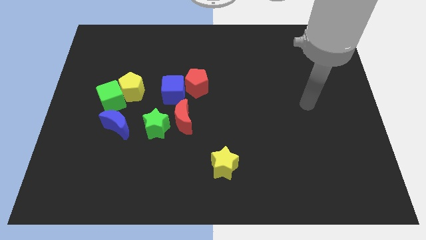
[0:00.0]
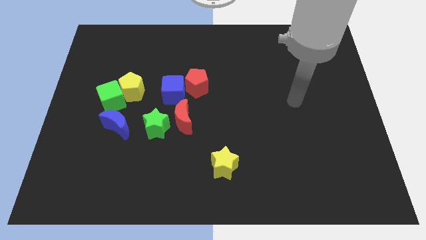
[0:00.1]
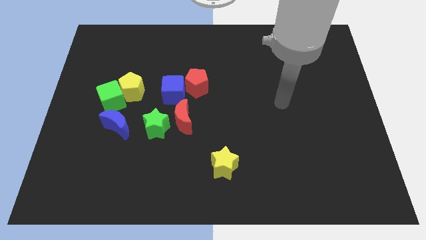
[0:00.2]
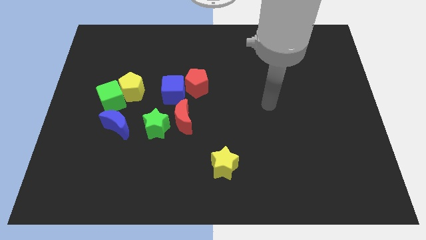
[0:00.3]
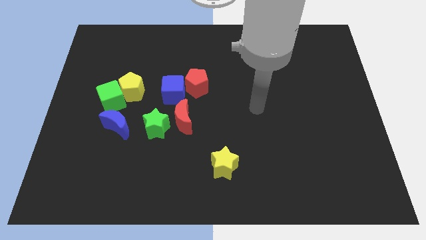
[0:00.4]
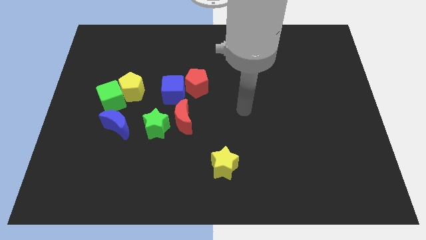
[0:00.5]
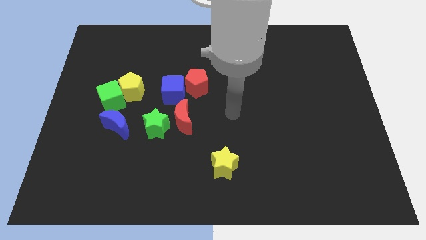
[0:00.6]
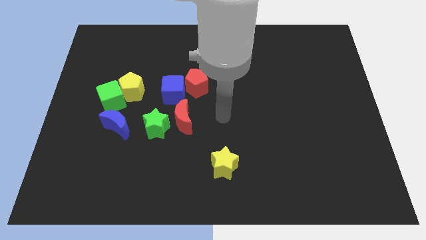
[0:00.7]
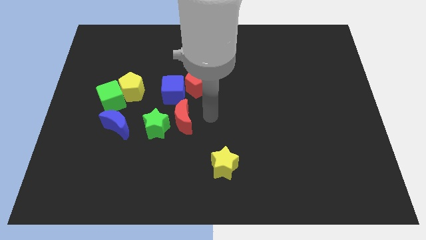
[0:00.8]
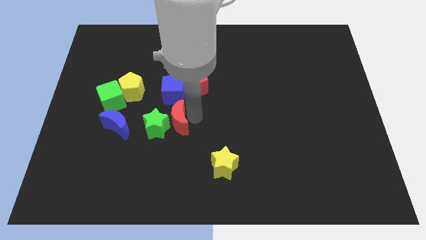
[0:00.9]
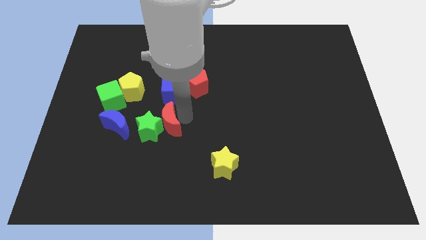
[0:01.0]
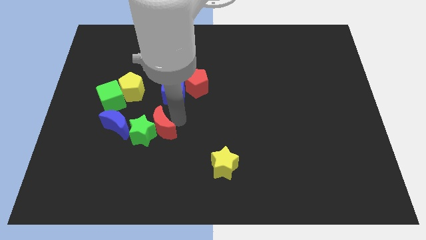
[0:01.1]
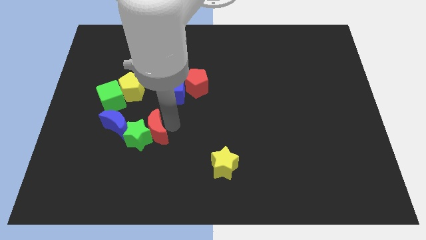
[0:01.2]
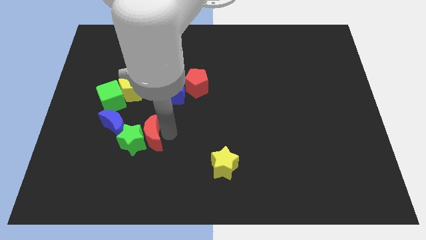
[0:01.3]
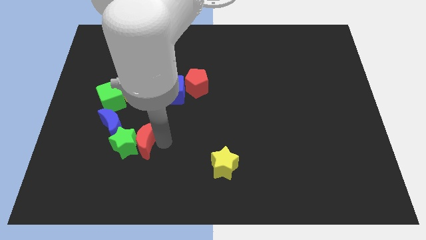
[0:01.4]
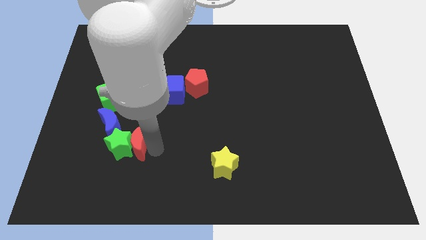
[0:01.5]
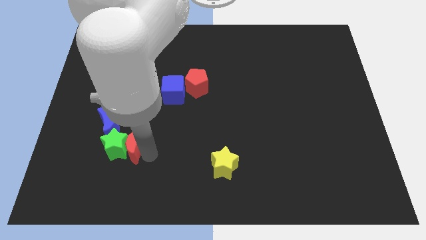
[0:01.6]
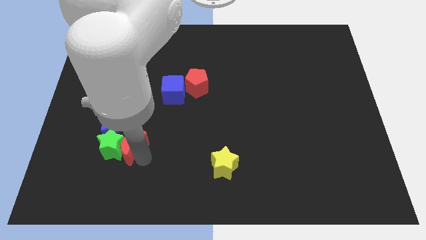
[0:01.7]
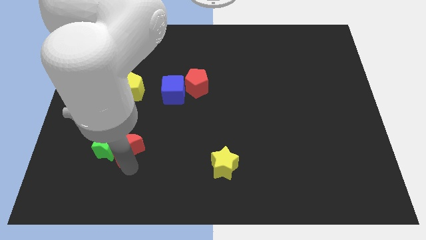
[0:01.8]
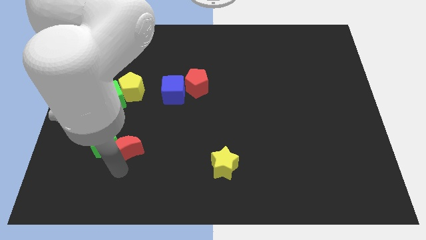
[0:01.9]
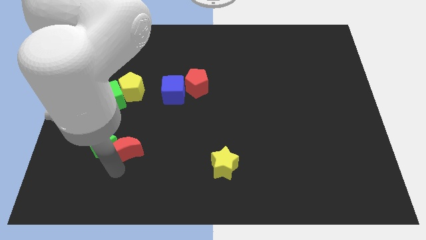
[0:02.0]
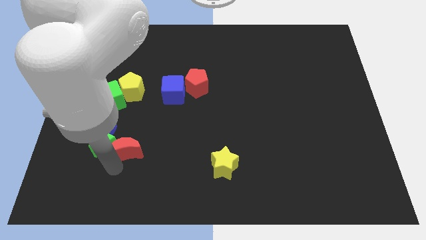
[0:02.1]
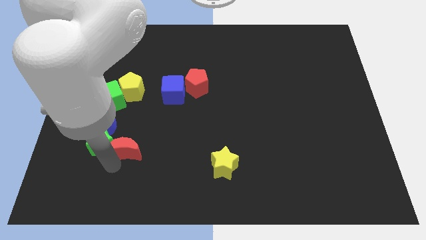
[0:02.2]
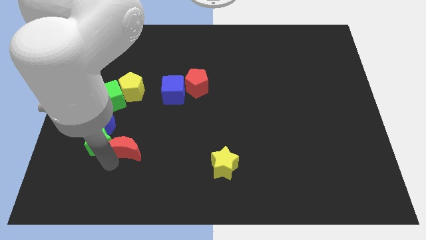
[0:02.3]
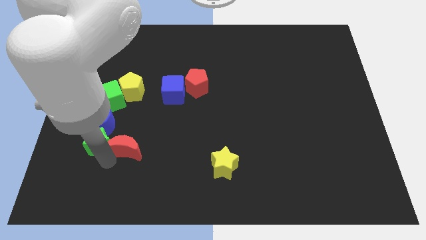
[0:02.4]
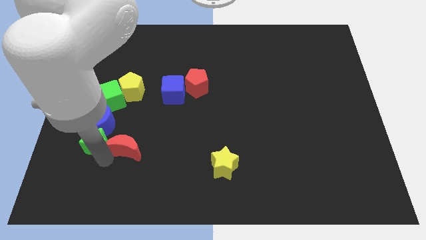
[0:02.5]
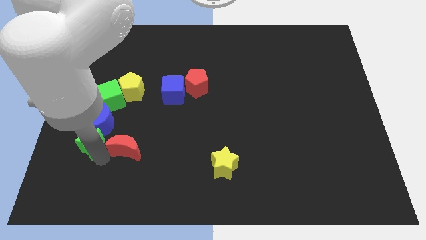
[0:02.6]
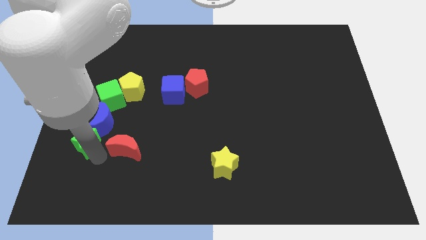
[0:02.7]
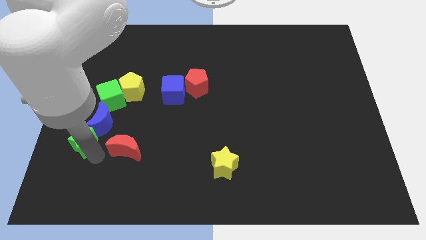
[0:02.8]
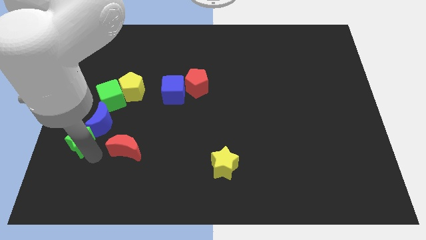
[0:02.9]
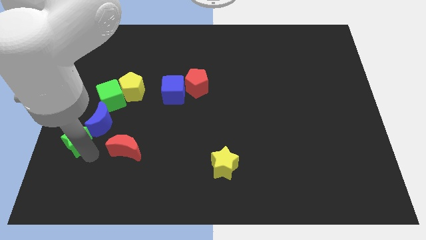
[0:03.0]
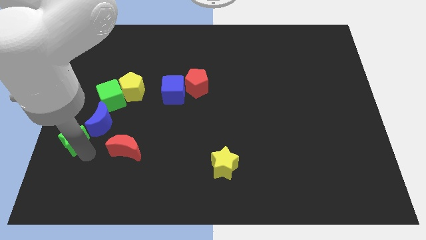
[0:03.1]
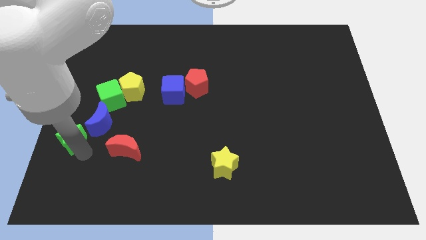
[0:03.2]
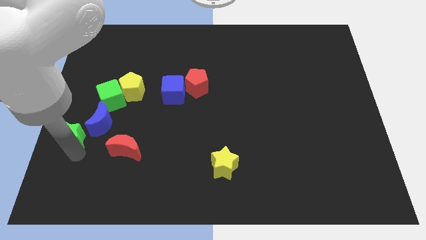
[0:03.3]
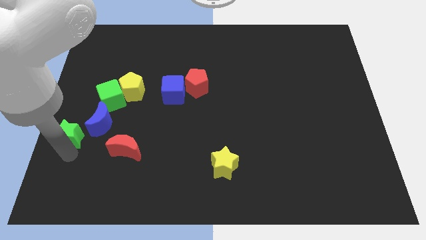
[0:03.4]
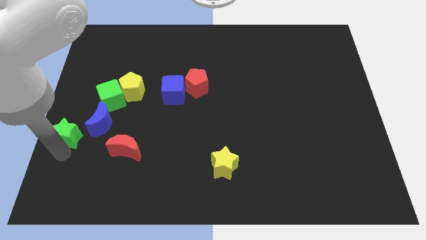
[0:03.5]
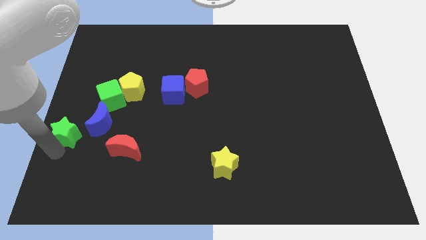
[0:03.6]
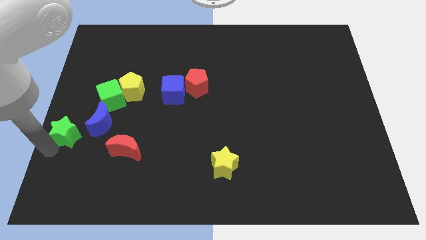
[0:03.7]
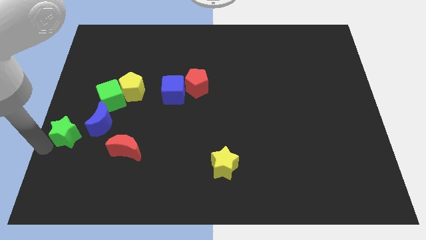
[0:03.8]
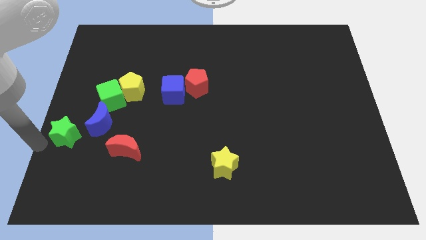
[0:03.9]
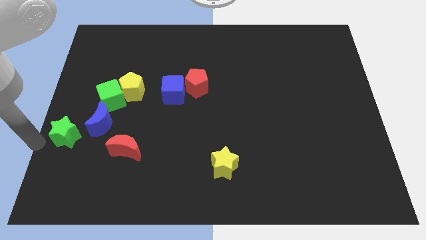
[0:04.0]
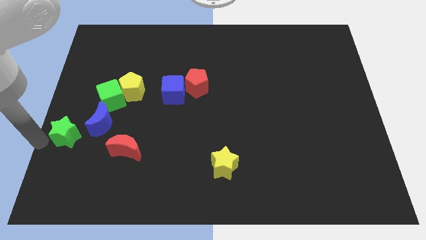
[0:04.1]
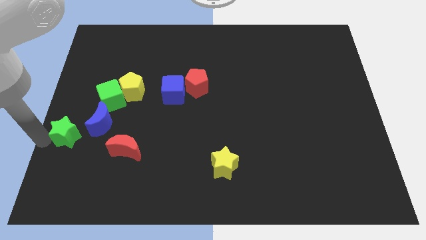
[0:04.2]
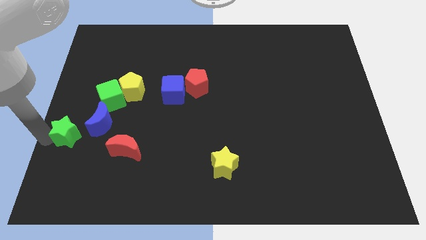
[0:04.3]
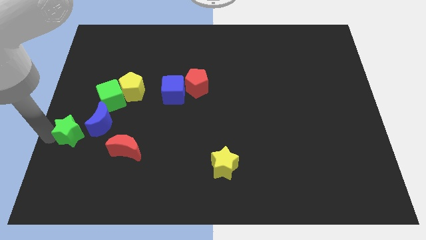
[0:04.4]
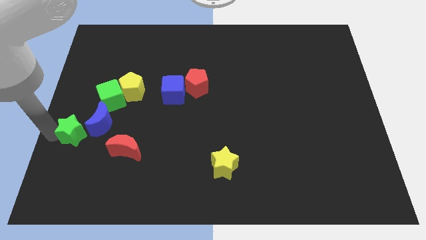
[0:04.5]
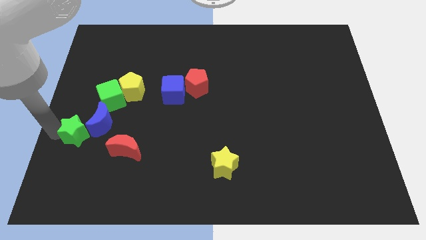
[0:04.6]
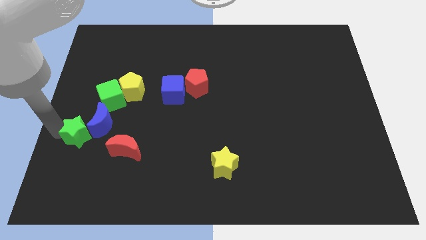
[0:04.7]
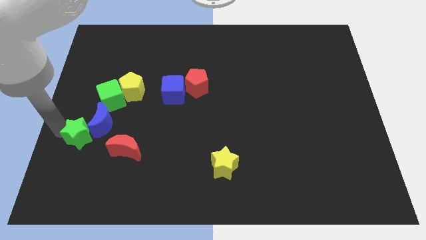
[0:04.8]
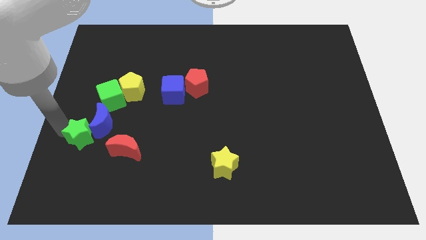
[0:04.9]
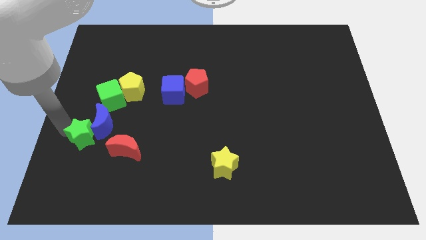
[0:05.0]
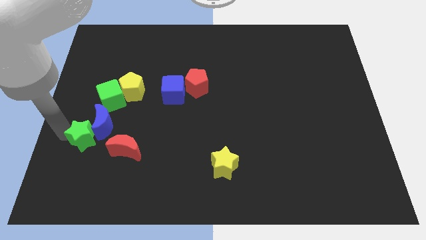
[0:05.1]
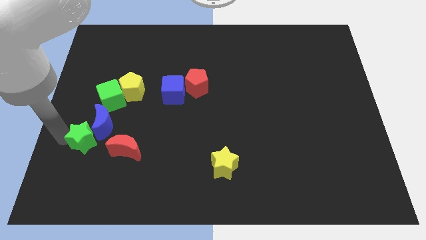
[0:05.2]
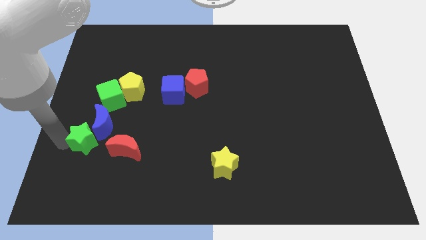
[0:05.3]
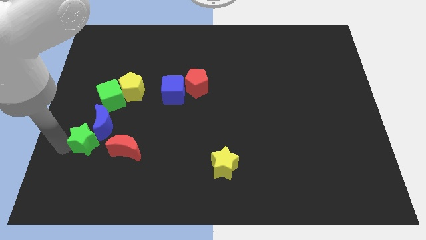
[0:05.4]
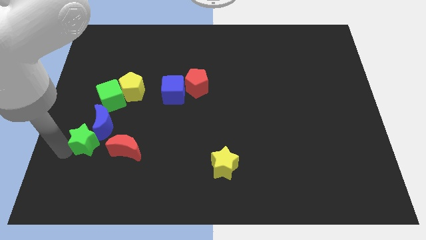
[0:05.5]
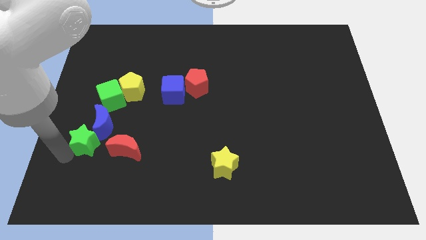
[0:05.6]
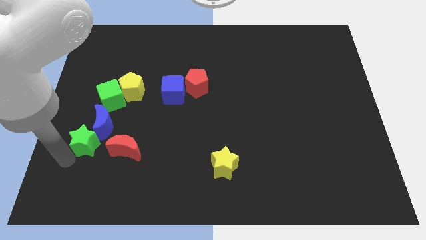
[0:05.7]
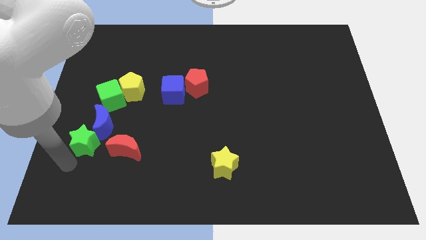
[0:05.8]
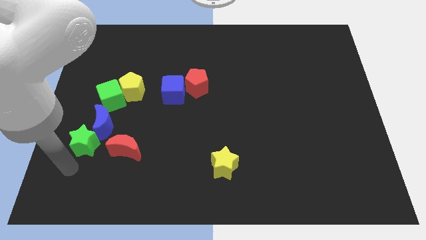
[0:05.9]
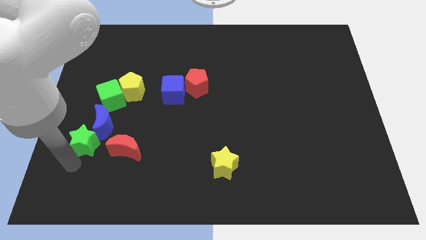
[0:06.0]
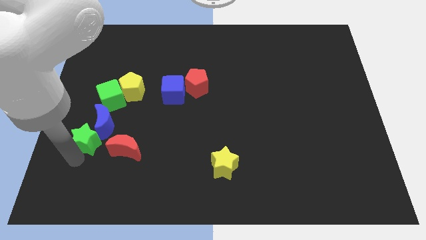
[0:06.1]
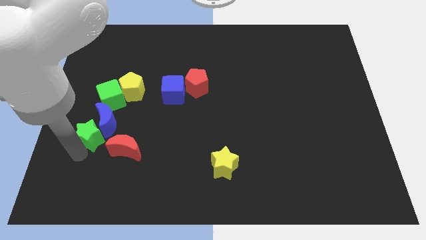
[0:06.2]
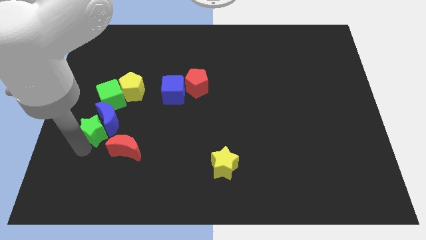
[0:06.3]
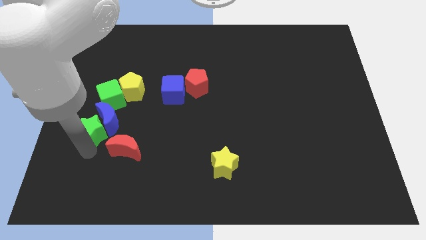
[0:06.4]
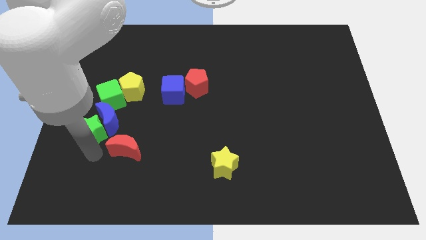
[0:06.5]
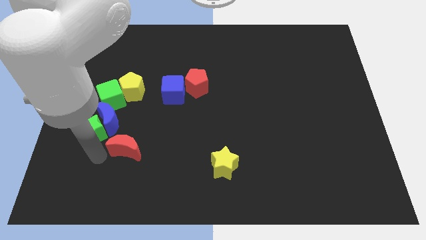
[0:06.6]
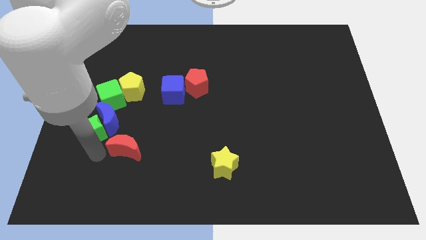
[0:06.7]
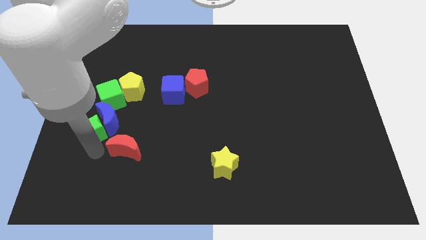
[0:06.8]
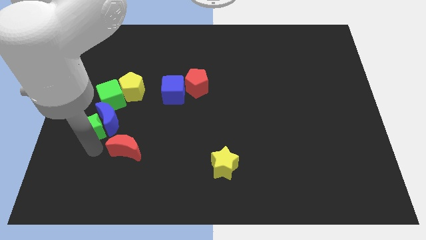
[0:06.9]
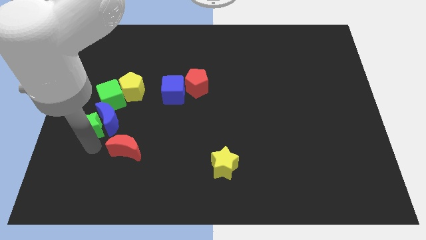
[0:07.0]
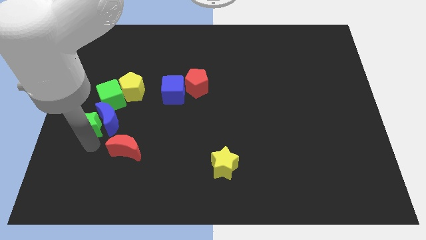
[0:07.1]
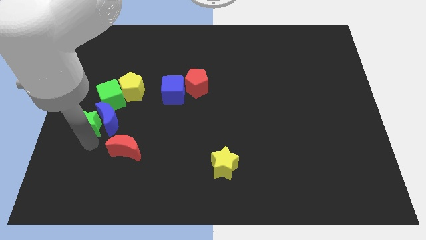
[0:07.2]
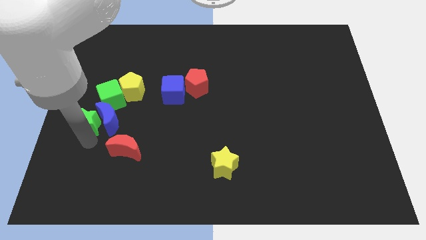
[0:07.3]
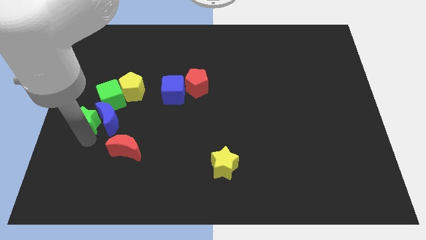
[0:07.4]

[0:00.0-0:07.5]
slightly push the green star upwards and left

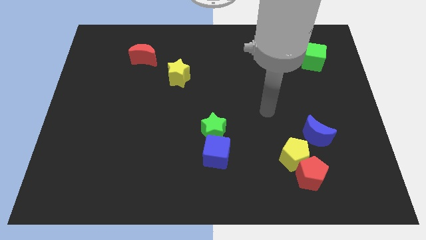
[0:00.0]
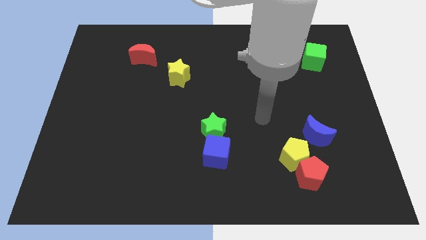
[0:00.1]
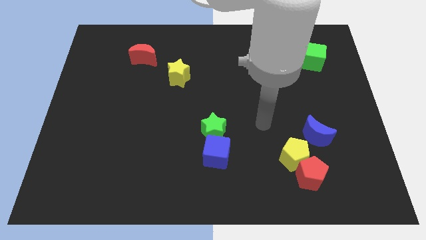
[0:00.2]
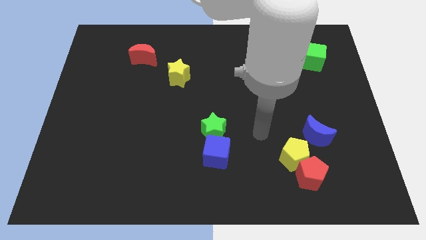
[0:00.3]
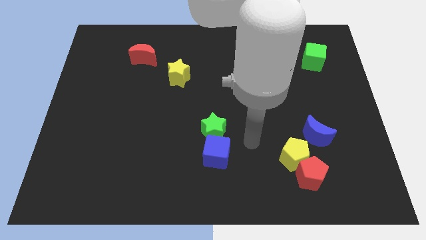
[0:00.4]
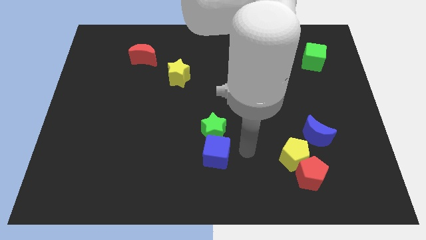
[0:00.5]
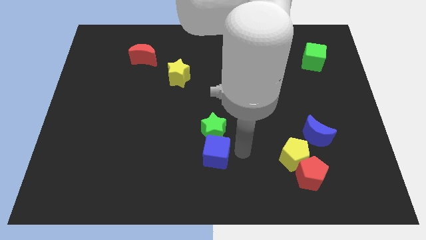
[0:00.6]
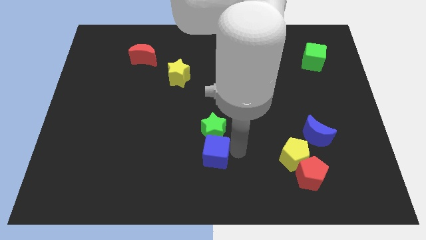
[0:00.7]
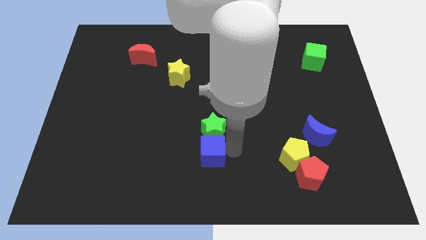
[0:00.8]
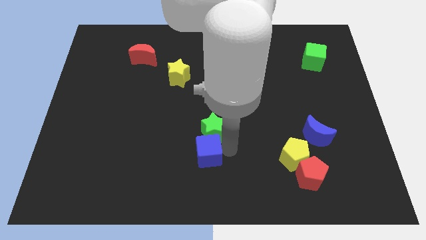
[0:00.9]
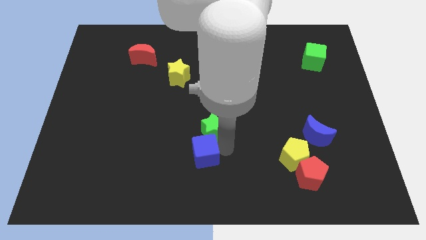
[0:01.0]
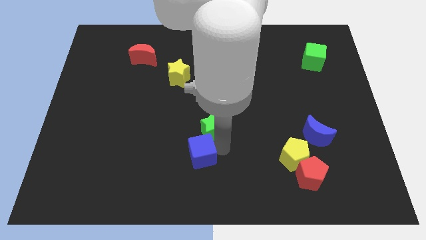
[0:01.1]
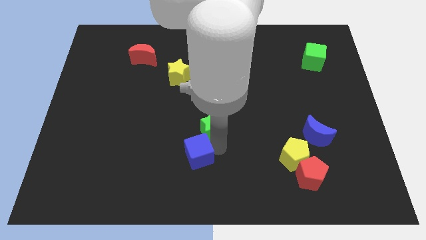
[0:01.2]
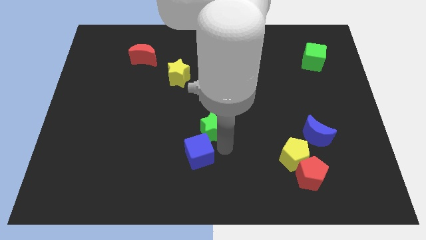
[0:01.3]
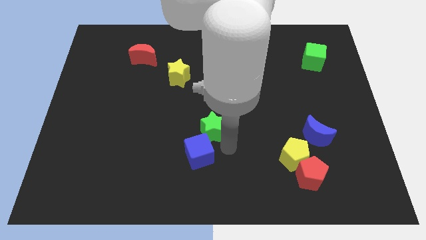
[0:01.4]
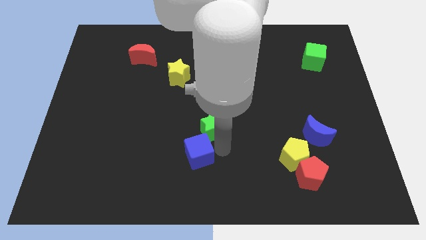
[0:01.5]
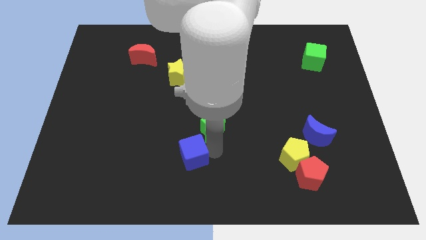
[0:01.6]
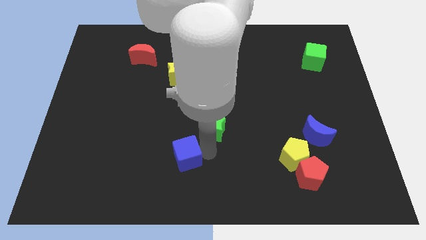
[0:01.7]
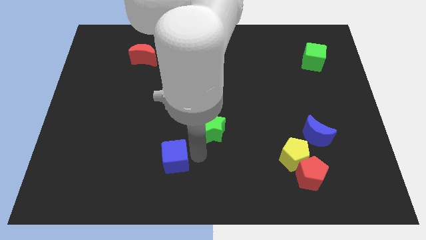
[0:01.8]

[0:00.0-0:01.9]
push the blue cube to the left a bit
